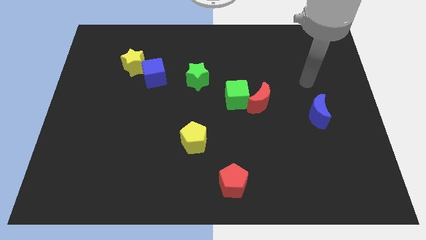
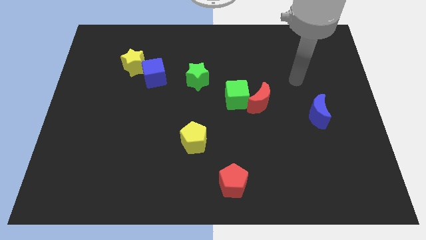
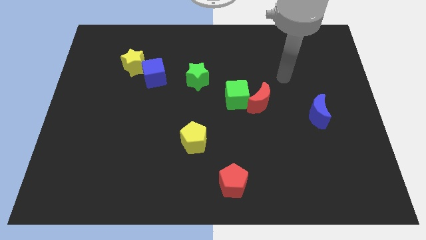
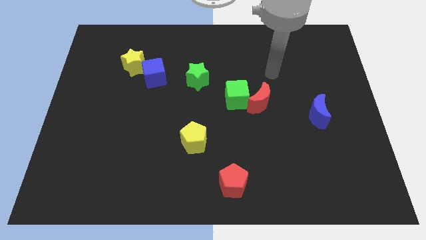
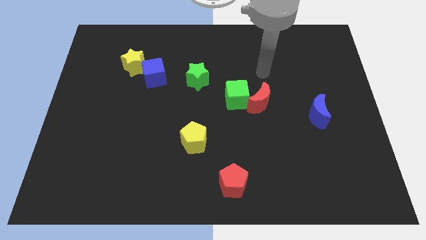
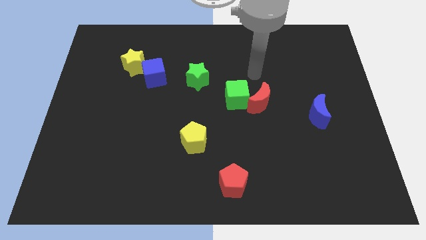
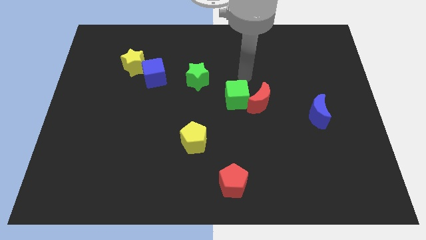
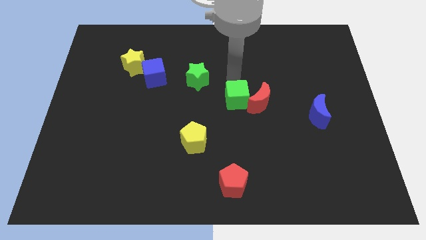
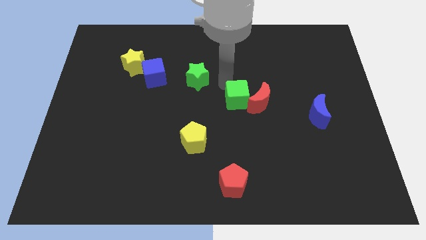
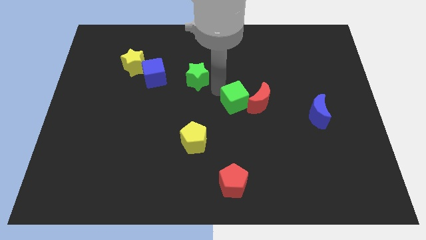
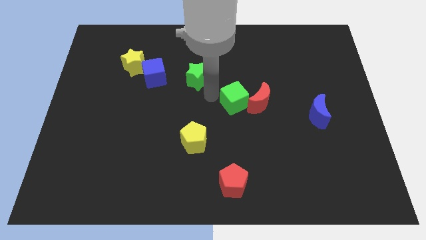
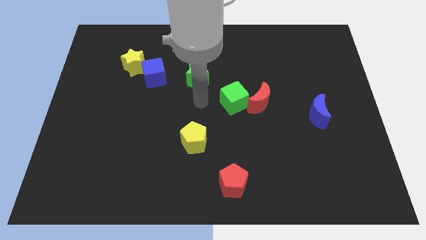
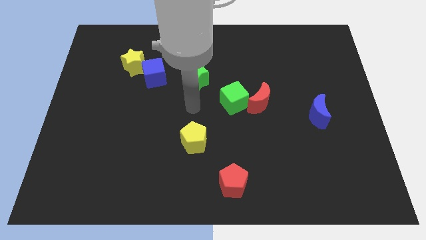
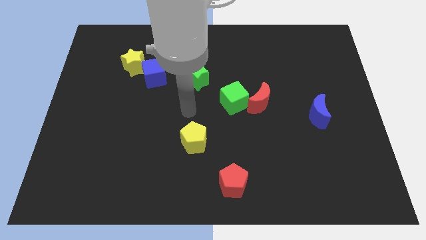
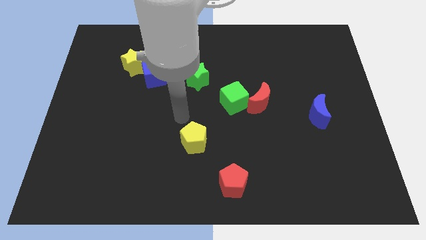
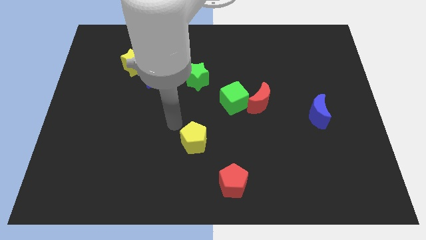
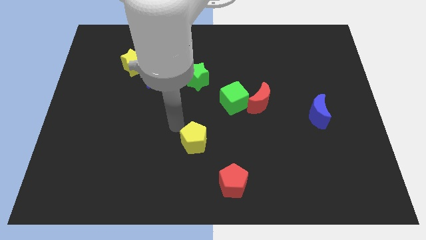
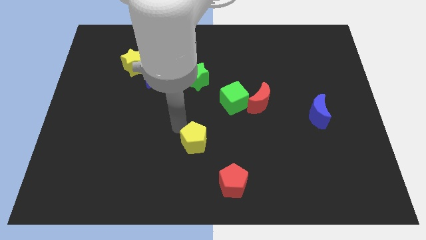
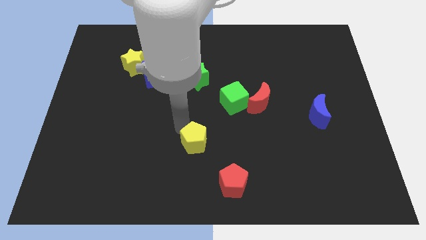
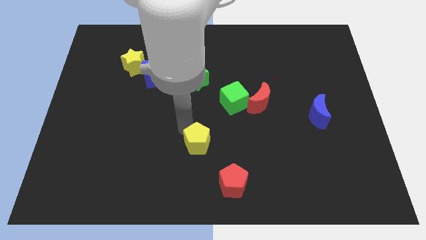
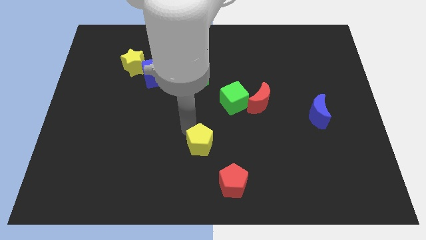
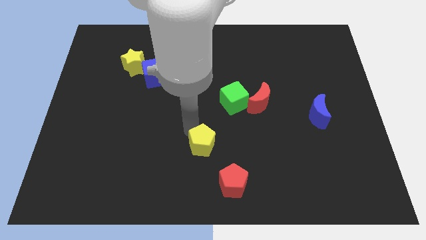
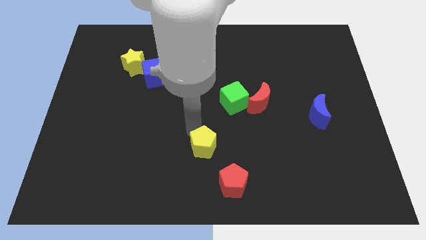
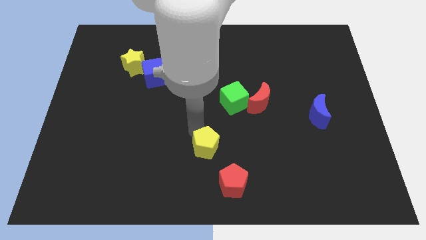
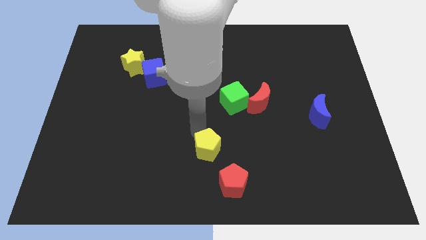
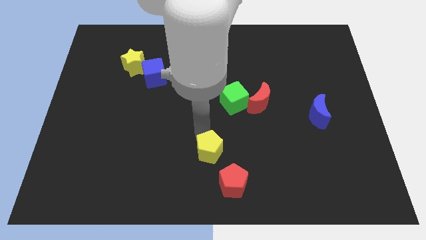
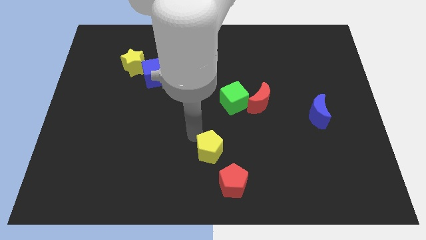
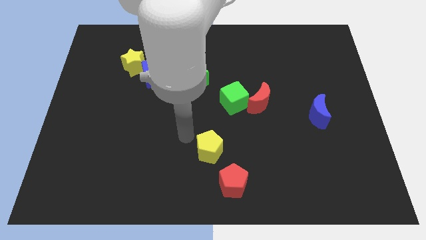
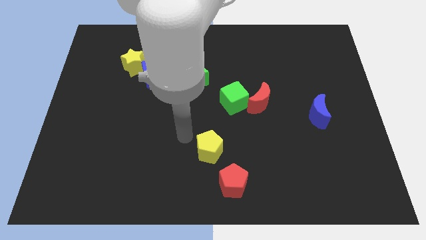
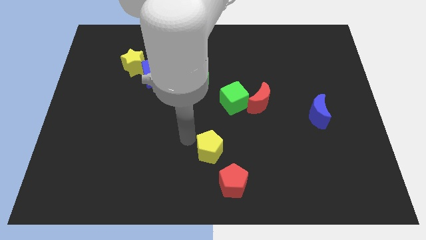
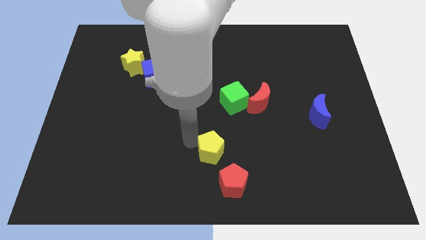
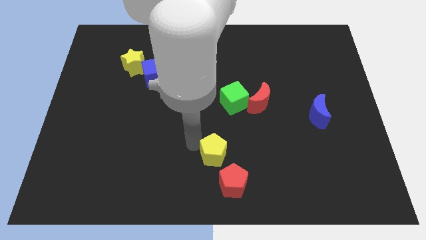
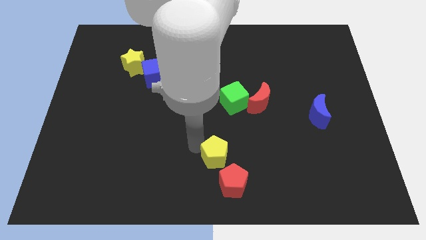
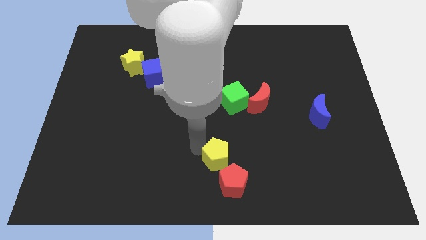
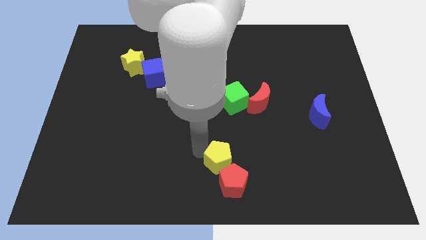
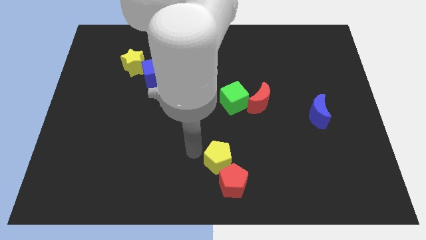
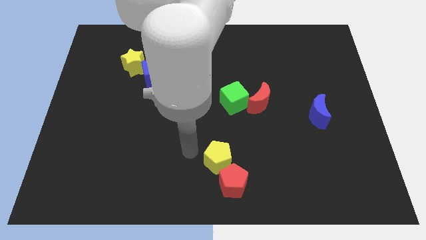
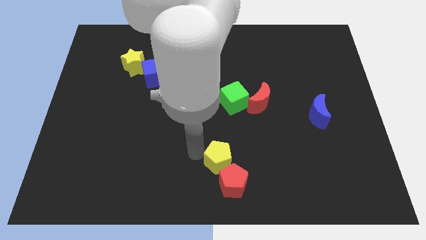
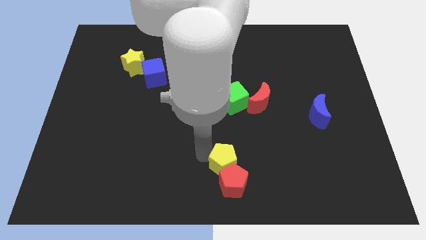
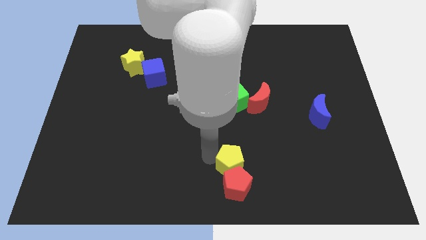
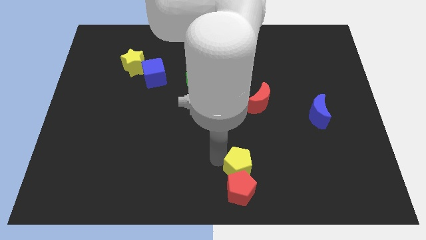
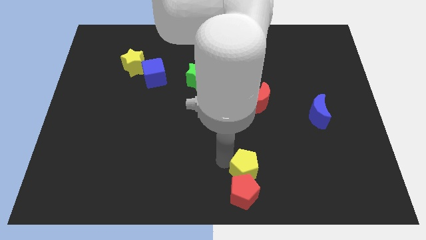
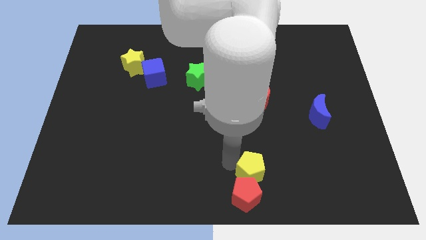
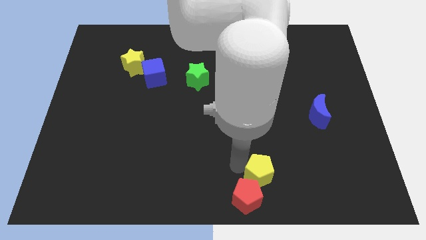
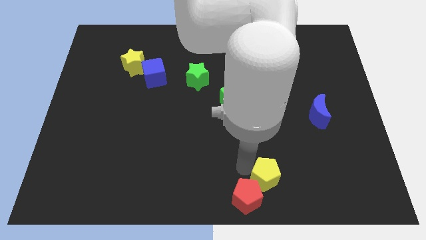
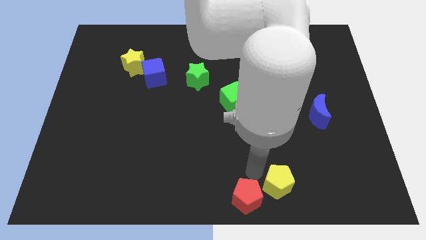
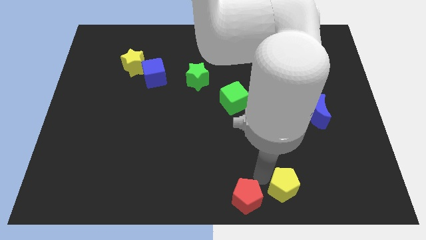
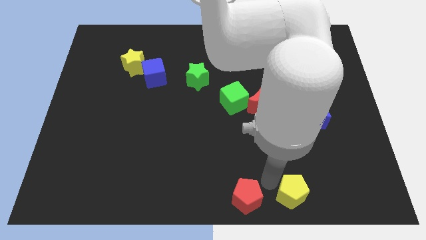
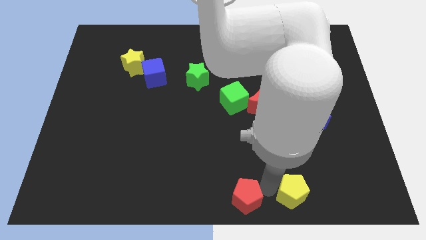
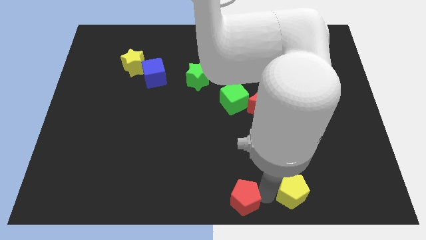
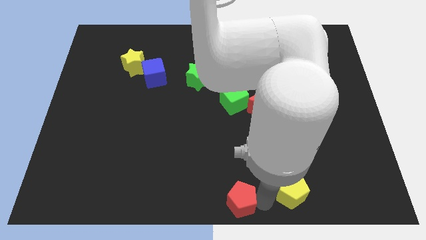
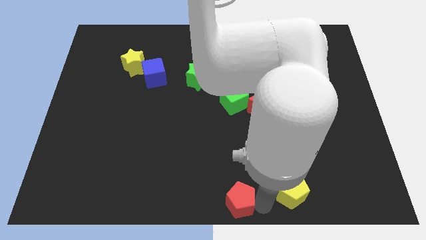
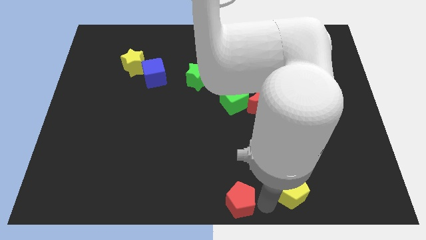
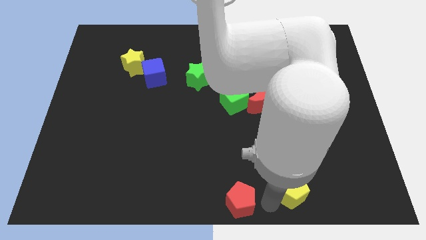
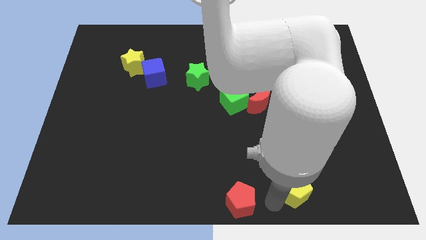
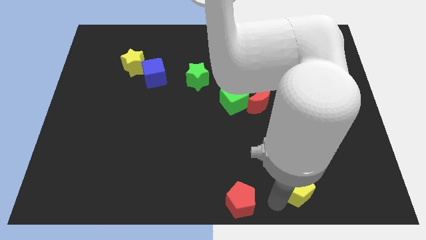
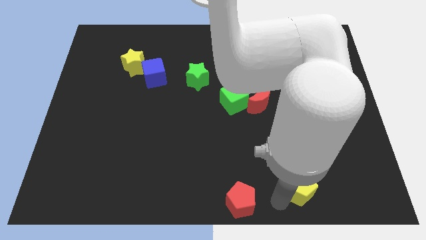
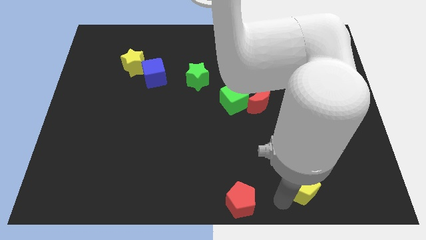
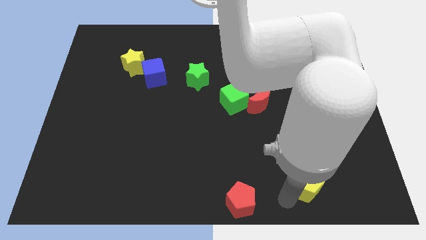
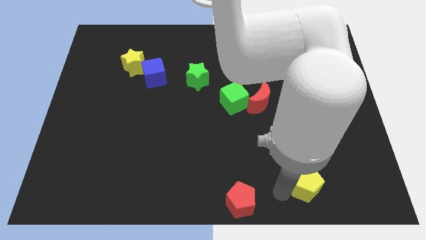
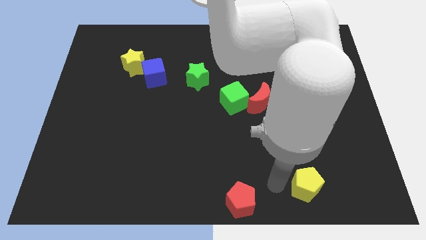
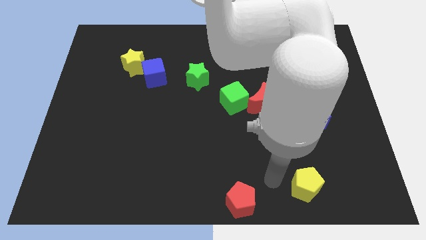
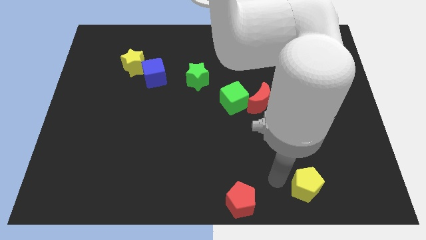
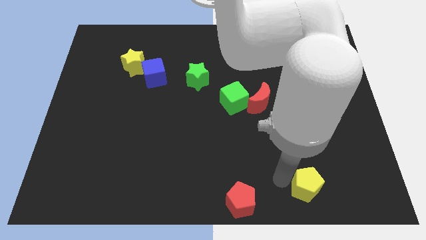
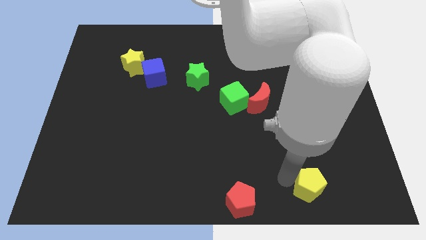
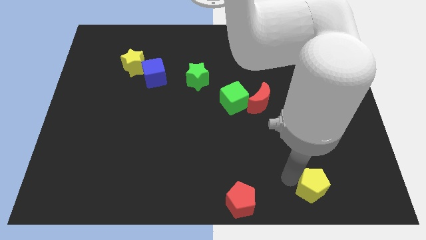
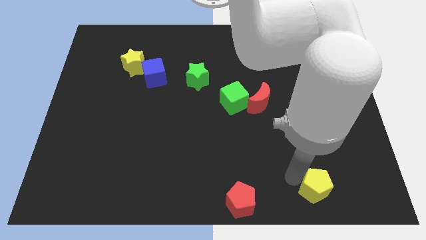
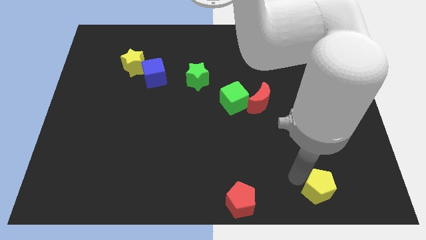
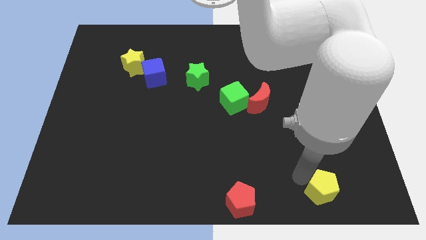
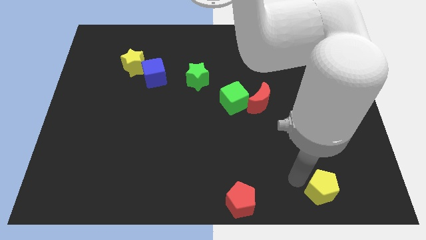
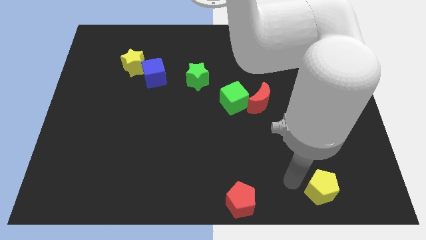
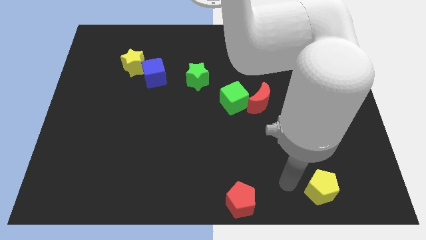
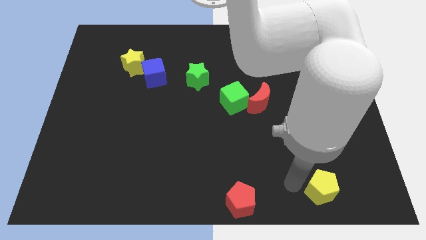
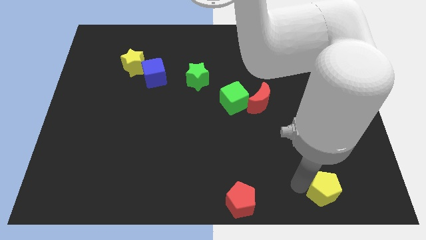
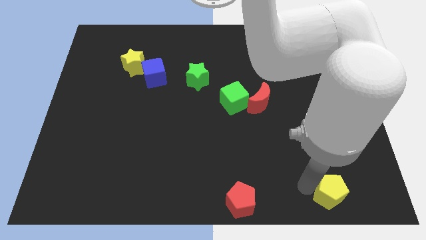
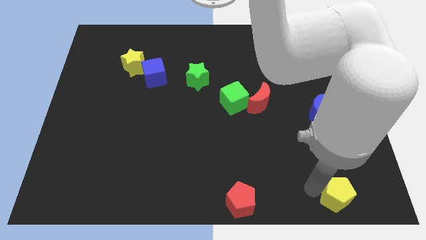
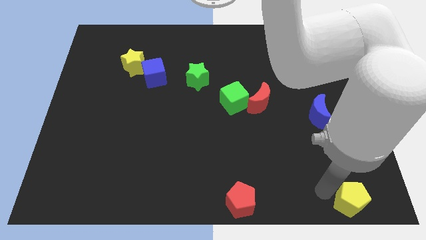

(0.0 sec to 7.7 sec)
push the yellow pentagon to the bottom right of the board
